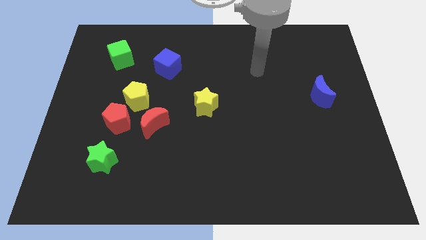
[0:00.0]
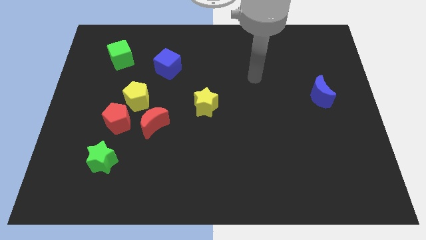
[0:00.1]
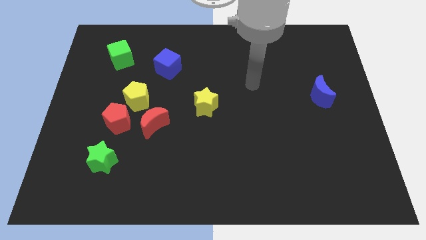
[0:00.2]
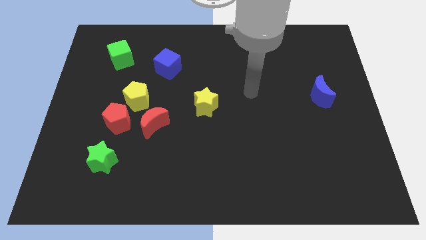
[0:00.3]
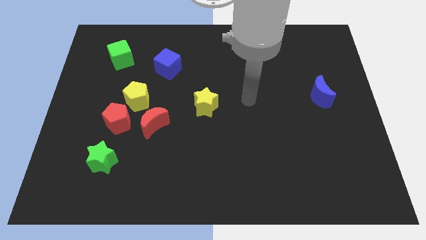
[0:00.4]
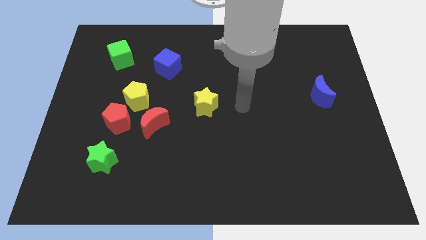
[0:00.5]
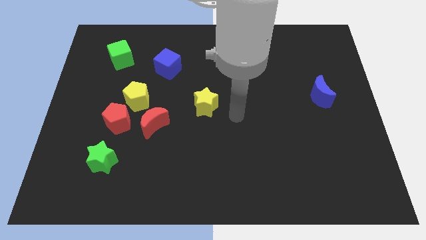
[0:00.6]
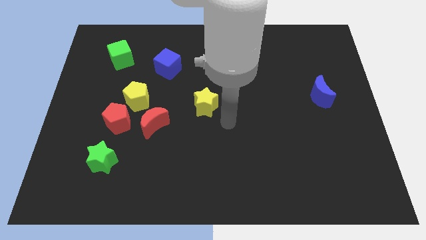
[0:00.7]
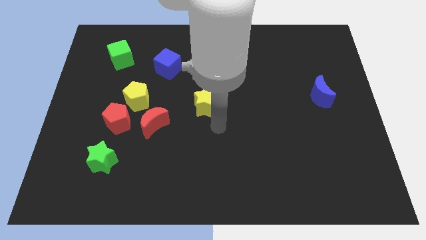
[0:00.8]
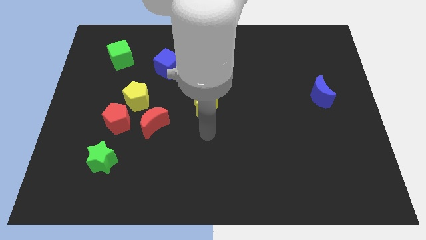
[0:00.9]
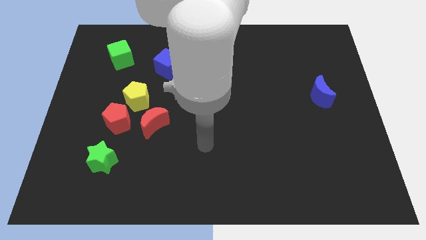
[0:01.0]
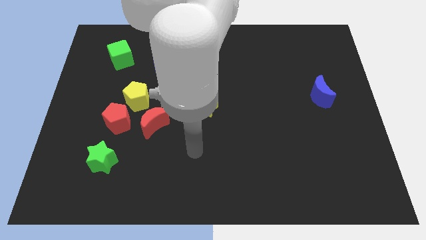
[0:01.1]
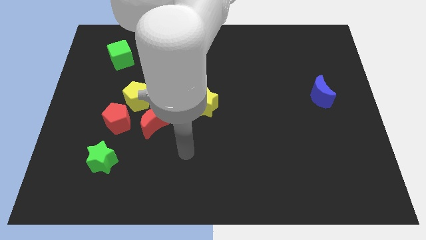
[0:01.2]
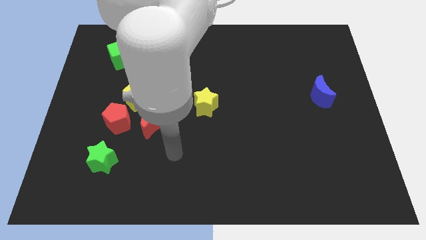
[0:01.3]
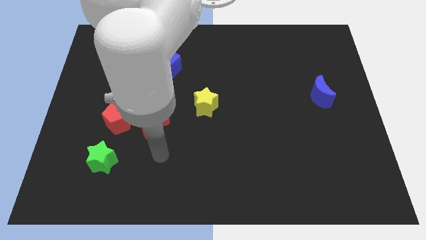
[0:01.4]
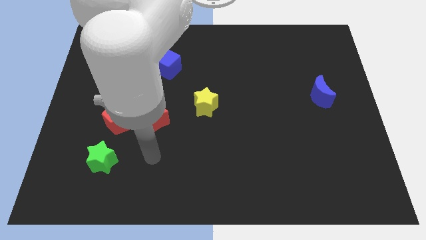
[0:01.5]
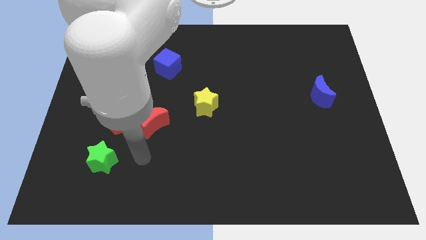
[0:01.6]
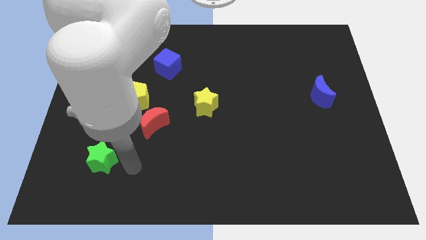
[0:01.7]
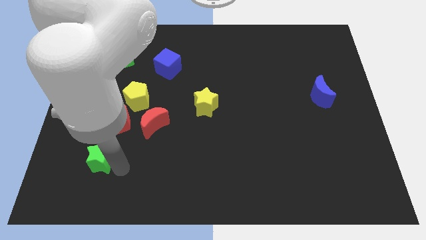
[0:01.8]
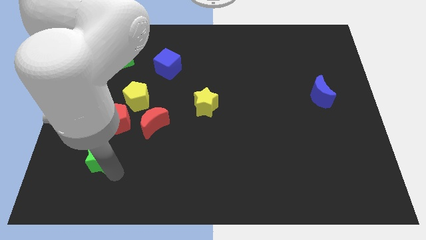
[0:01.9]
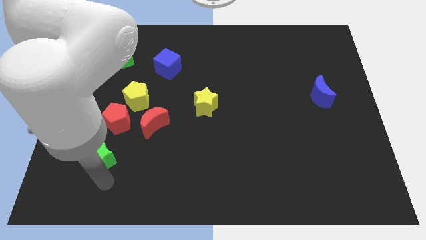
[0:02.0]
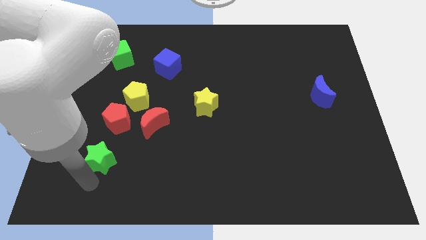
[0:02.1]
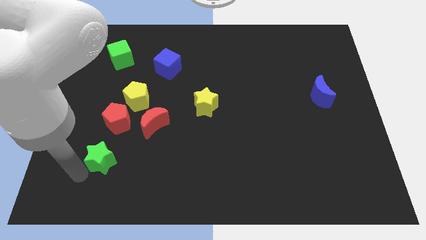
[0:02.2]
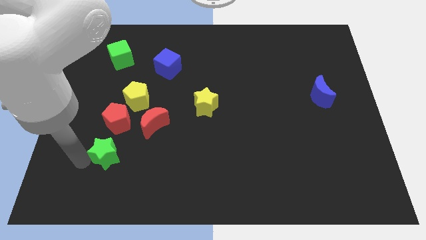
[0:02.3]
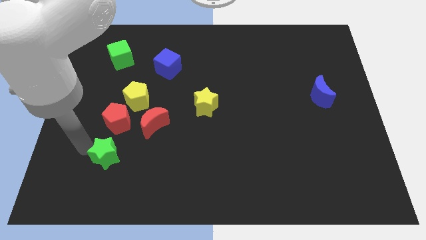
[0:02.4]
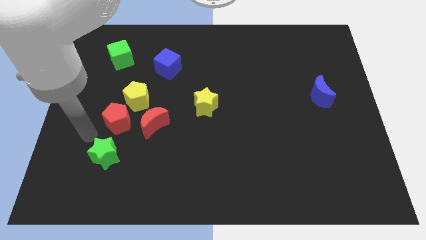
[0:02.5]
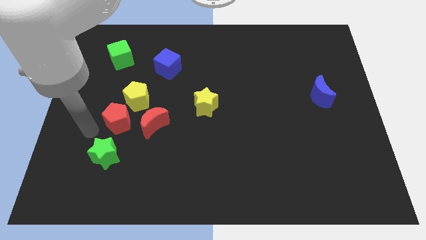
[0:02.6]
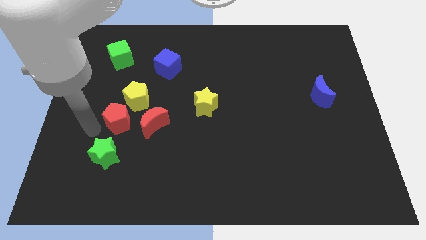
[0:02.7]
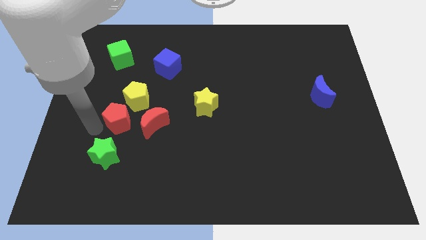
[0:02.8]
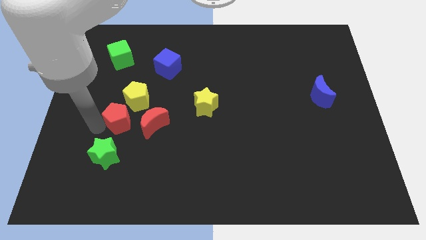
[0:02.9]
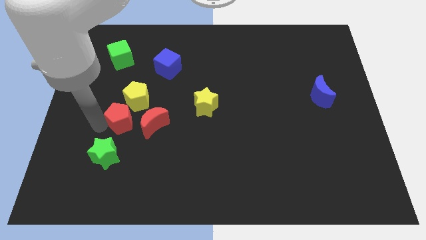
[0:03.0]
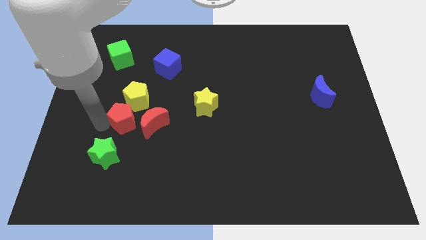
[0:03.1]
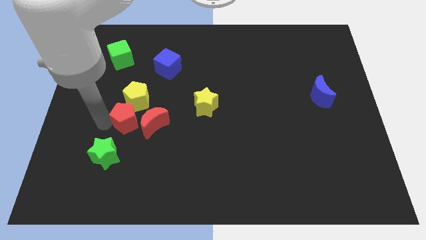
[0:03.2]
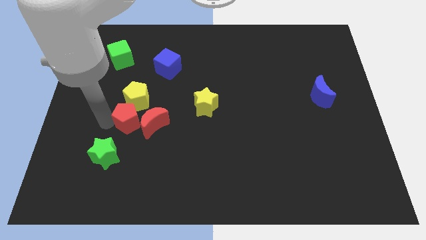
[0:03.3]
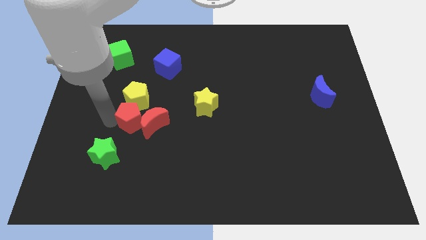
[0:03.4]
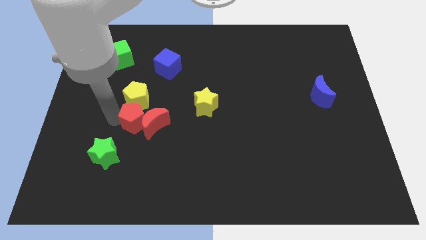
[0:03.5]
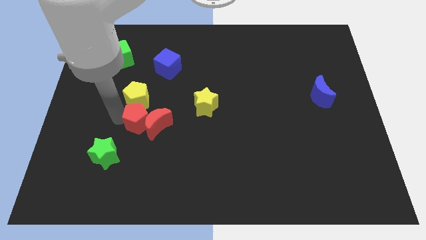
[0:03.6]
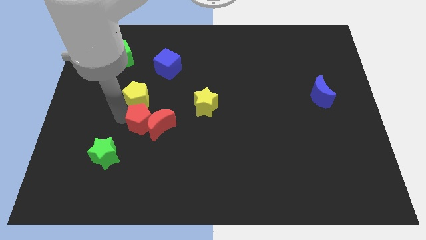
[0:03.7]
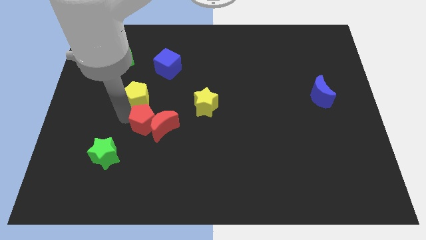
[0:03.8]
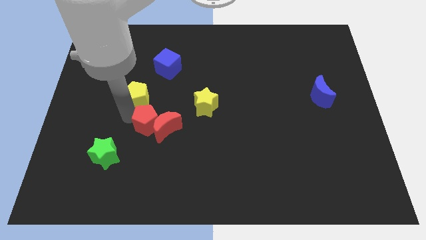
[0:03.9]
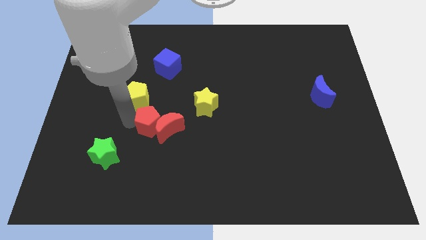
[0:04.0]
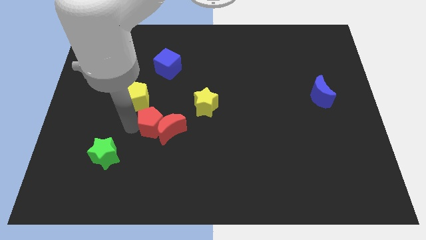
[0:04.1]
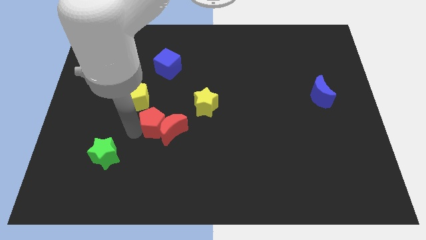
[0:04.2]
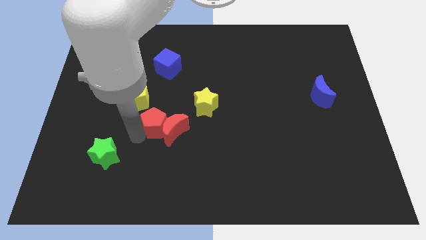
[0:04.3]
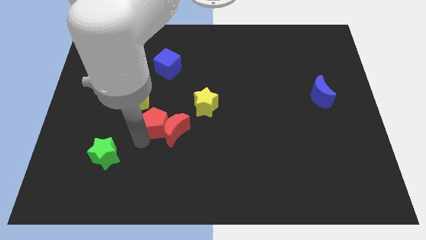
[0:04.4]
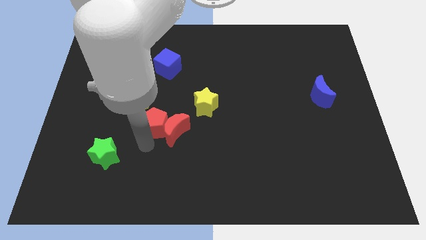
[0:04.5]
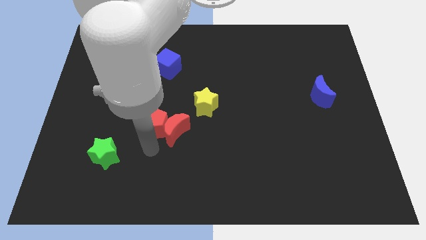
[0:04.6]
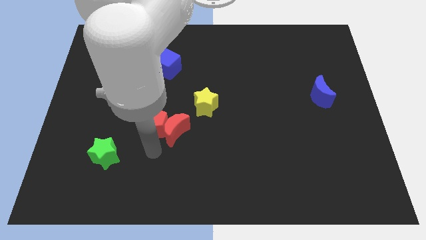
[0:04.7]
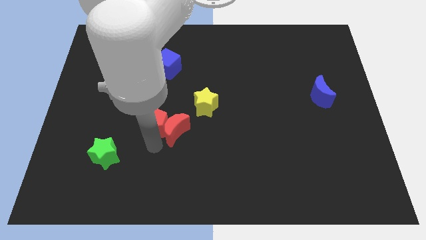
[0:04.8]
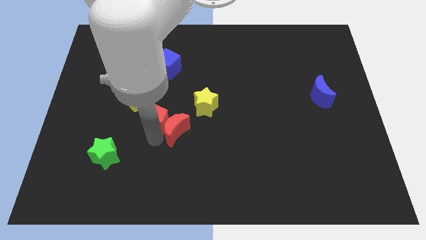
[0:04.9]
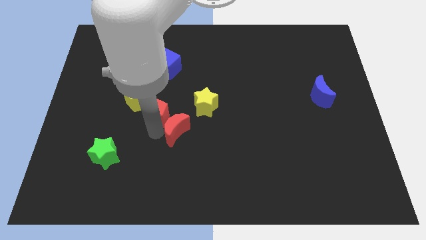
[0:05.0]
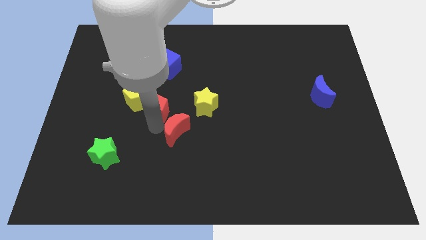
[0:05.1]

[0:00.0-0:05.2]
slightly push the red pentagon up and to the right diagonally

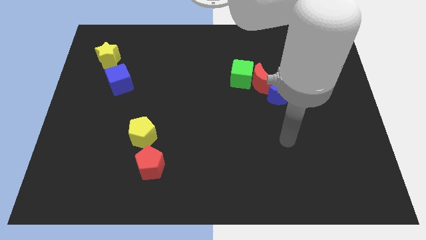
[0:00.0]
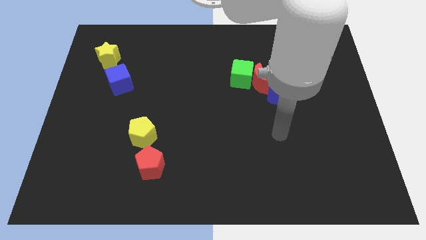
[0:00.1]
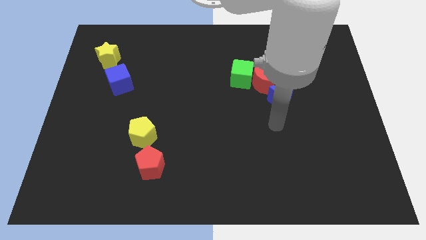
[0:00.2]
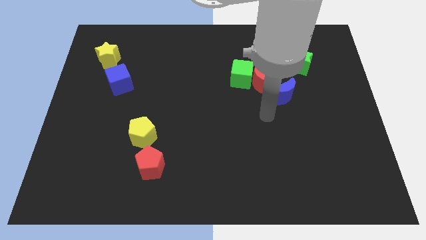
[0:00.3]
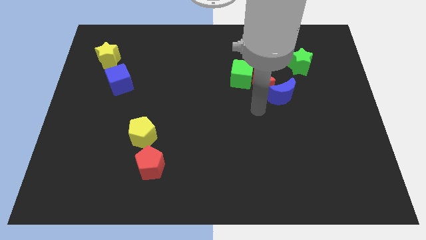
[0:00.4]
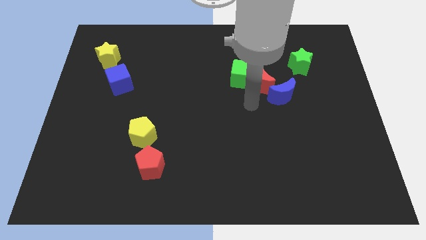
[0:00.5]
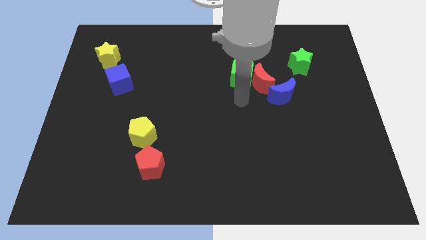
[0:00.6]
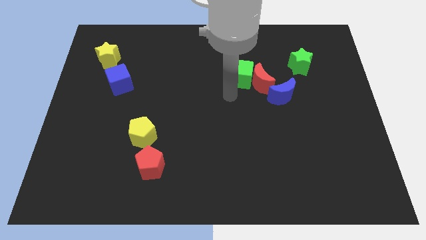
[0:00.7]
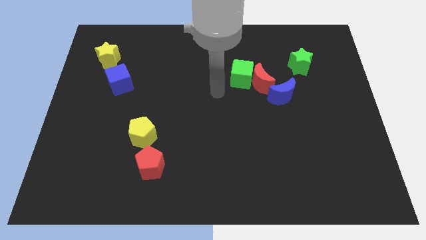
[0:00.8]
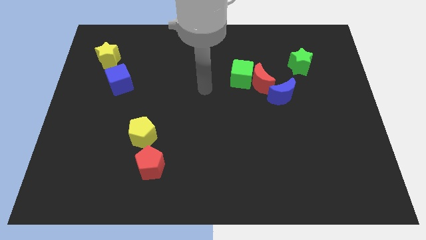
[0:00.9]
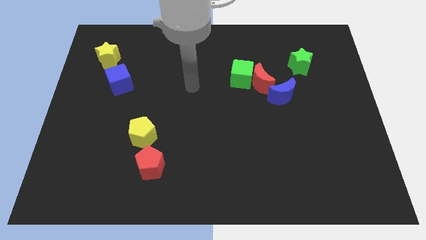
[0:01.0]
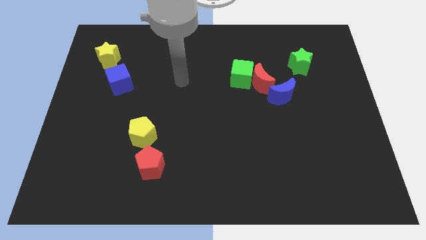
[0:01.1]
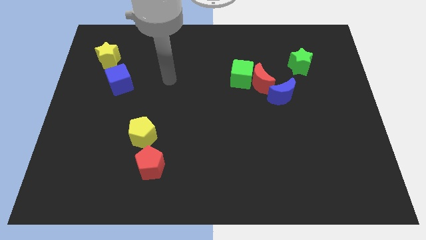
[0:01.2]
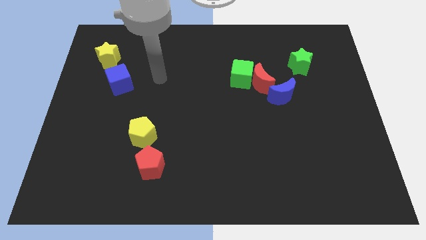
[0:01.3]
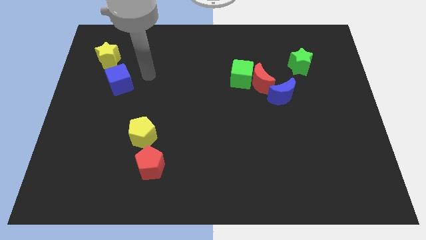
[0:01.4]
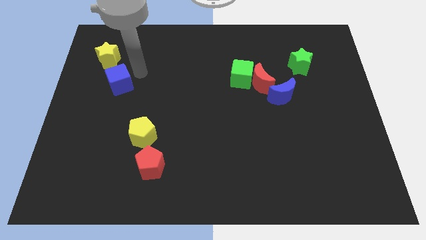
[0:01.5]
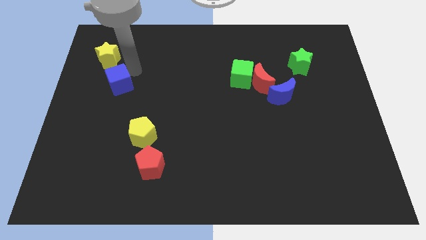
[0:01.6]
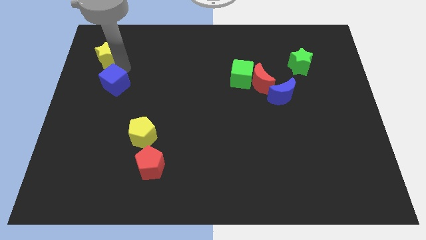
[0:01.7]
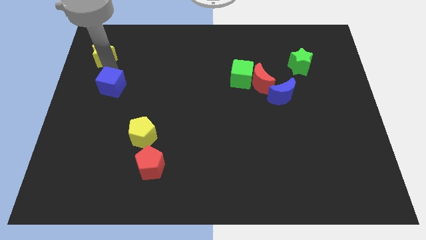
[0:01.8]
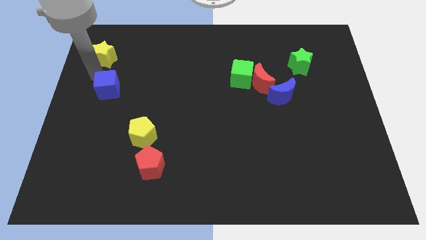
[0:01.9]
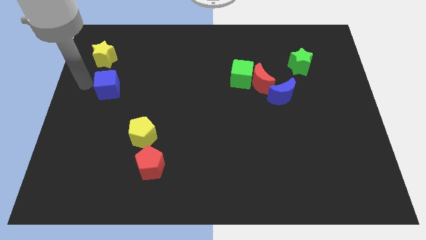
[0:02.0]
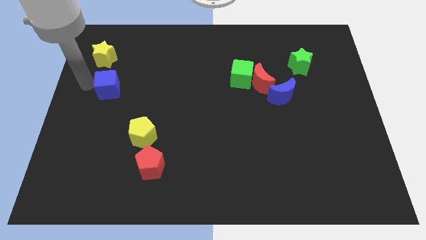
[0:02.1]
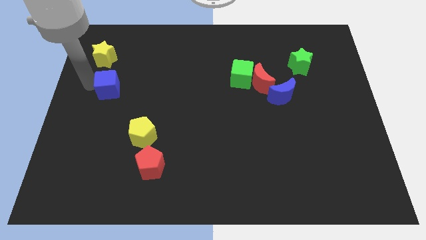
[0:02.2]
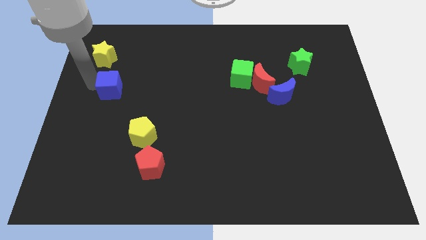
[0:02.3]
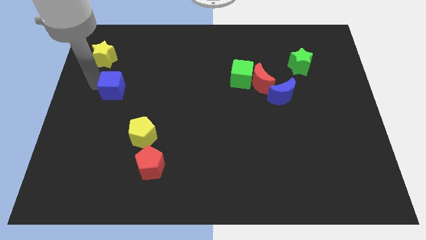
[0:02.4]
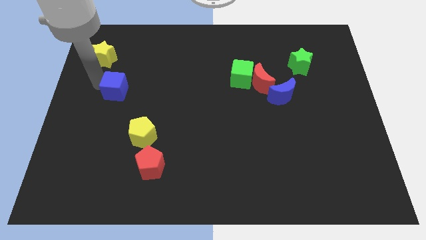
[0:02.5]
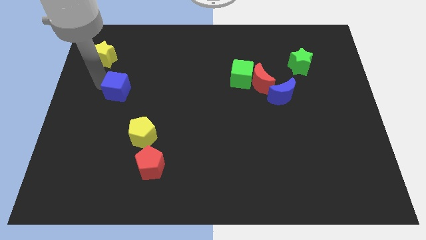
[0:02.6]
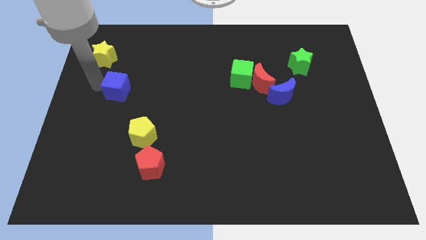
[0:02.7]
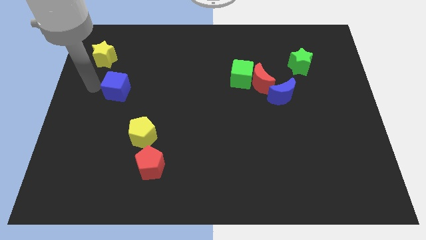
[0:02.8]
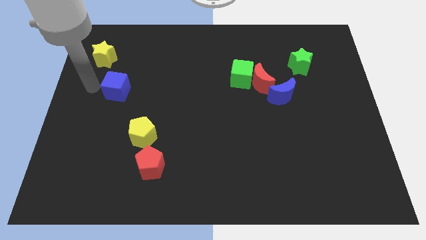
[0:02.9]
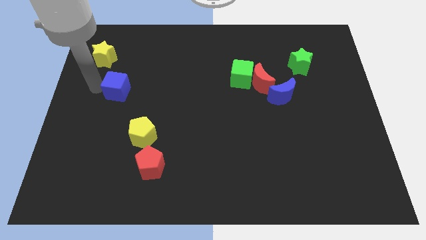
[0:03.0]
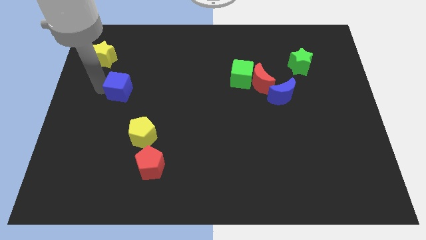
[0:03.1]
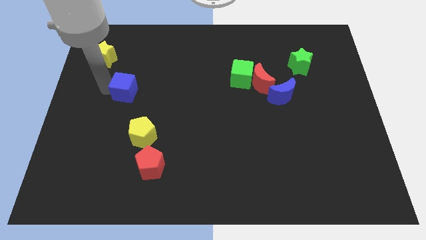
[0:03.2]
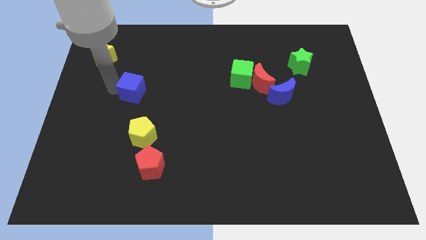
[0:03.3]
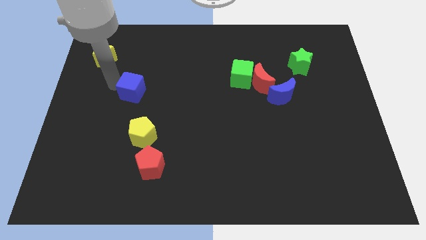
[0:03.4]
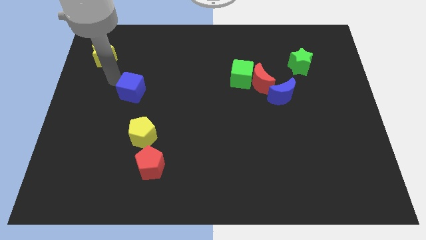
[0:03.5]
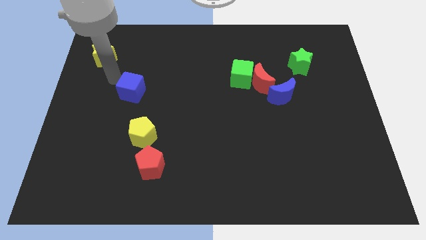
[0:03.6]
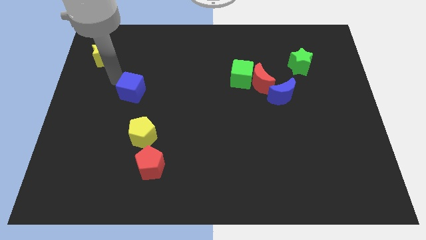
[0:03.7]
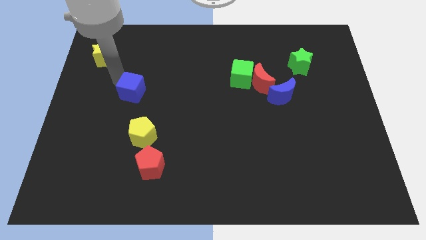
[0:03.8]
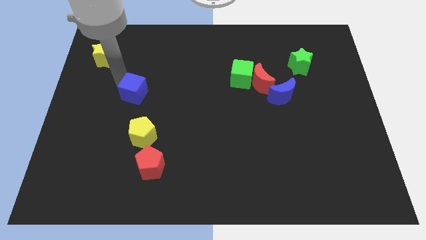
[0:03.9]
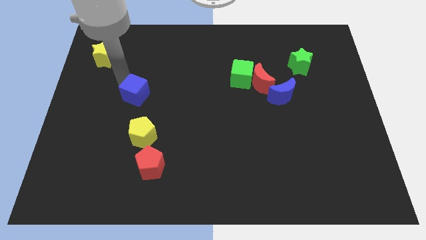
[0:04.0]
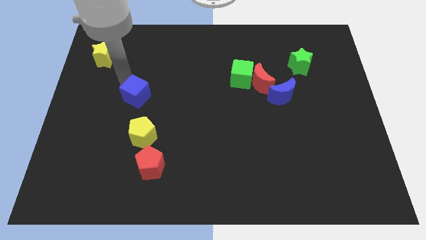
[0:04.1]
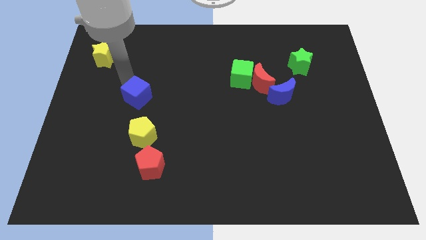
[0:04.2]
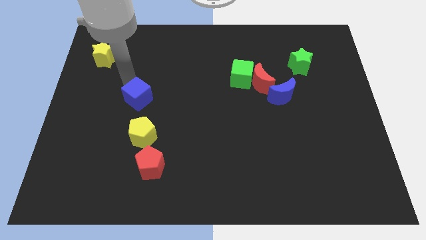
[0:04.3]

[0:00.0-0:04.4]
slightly push the blue cube downwards and to the right
